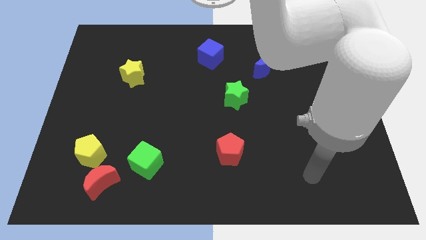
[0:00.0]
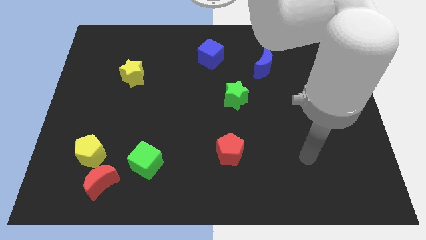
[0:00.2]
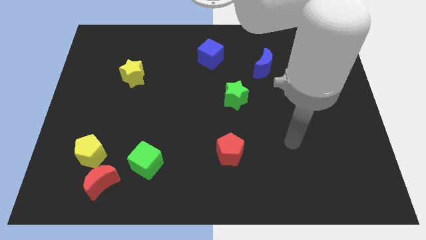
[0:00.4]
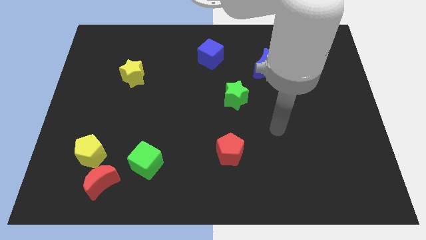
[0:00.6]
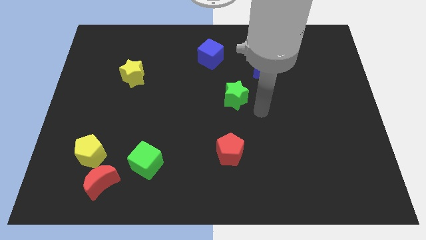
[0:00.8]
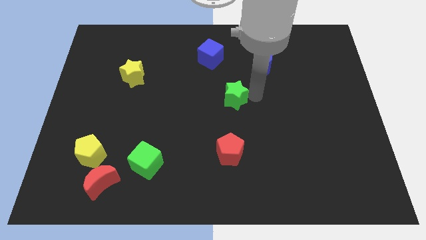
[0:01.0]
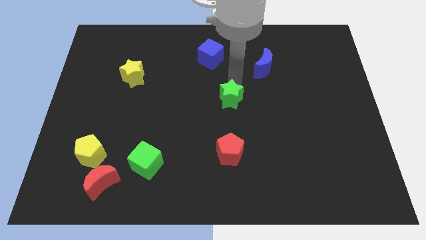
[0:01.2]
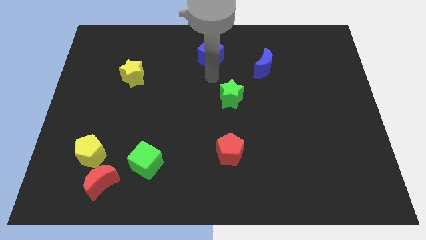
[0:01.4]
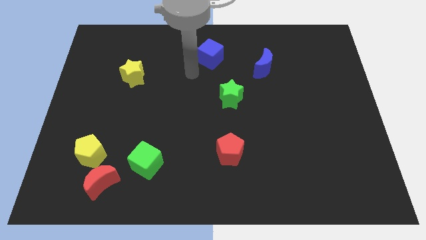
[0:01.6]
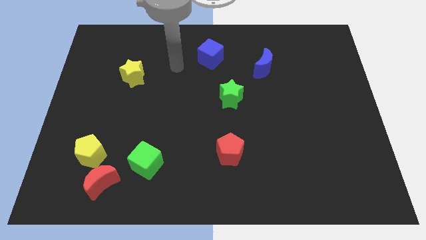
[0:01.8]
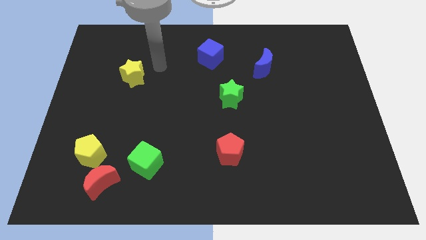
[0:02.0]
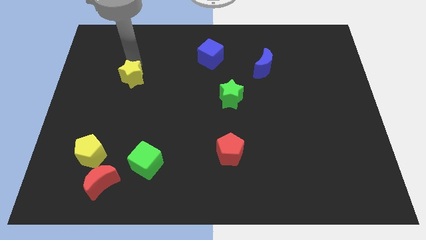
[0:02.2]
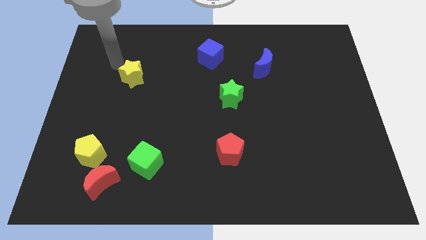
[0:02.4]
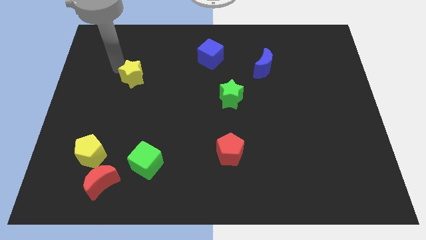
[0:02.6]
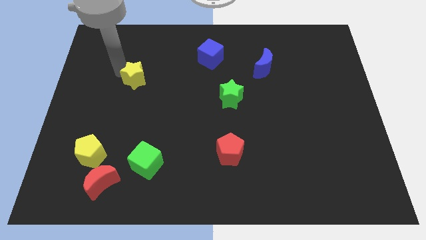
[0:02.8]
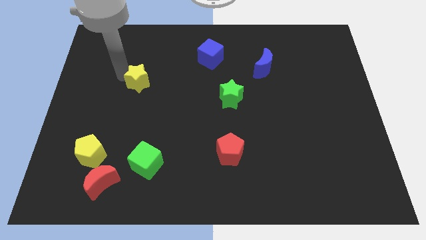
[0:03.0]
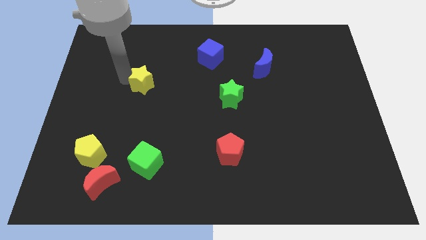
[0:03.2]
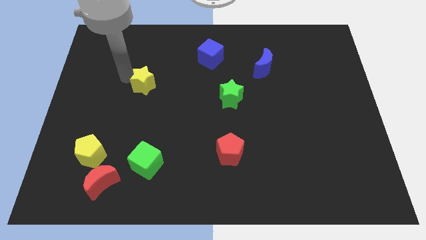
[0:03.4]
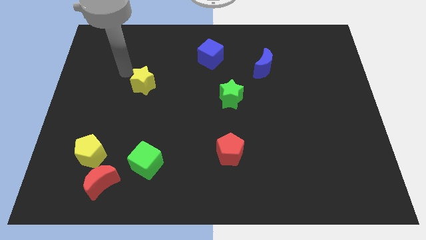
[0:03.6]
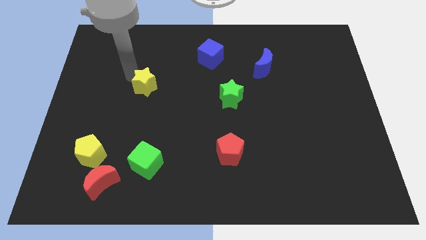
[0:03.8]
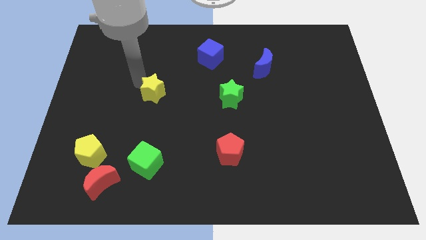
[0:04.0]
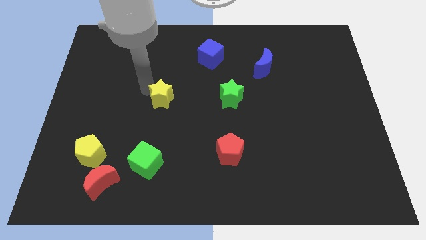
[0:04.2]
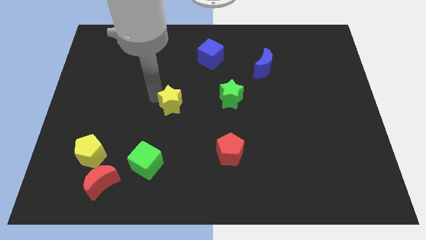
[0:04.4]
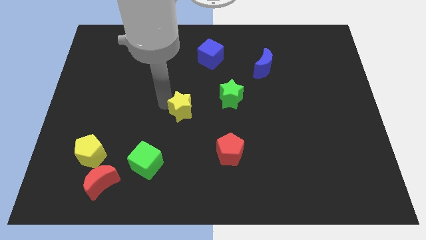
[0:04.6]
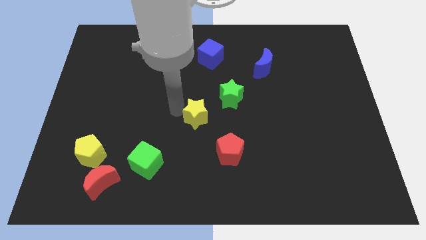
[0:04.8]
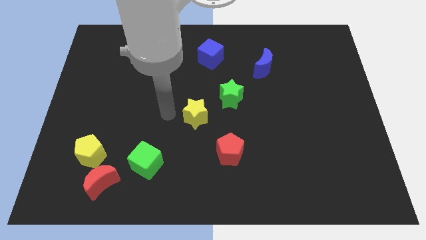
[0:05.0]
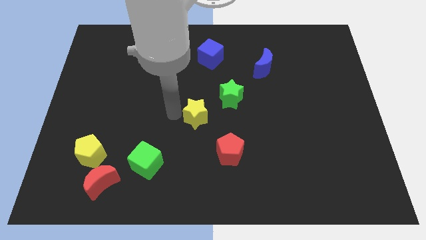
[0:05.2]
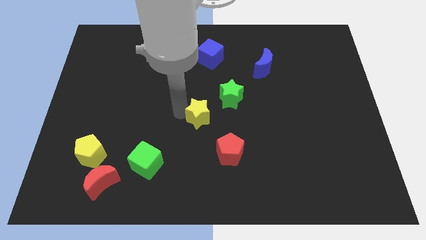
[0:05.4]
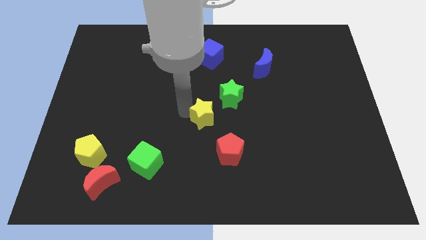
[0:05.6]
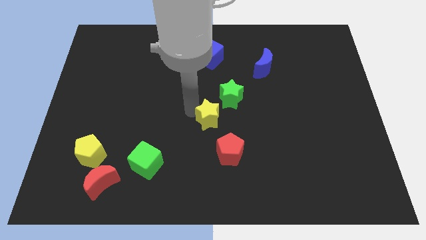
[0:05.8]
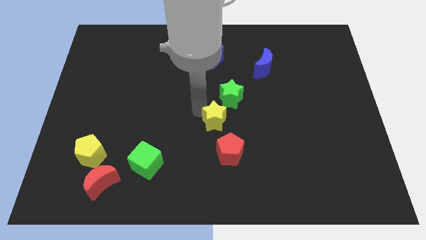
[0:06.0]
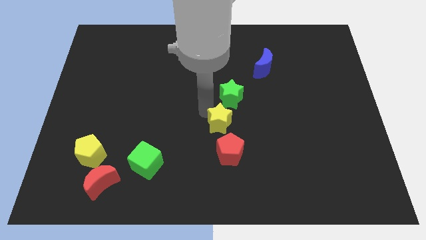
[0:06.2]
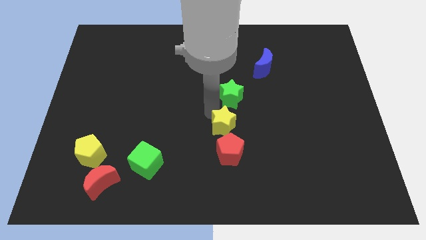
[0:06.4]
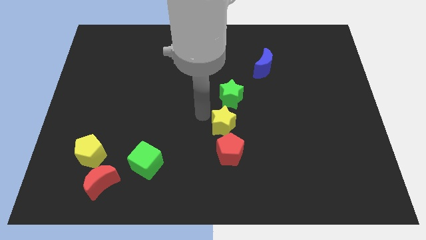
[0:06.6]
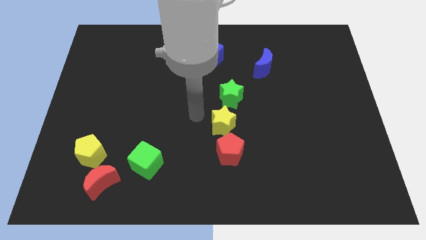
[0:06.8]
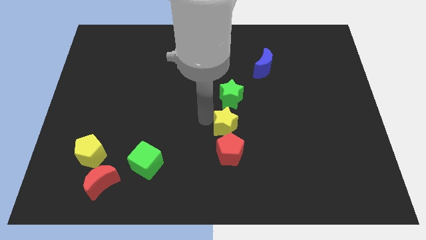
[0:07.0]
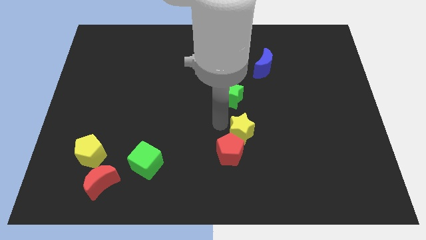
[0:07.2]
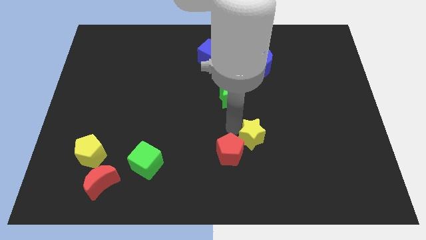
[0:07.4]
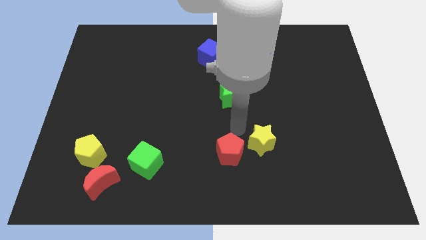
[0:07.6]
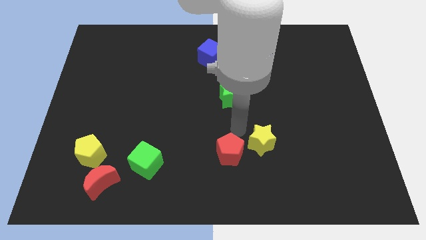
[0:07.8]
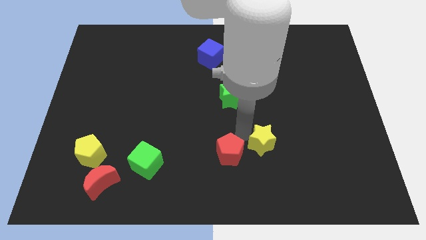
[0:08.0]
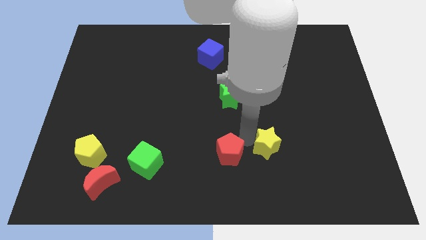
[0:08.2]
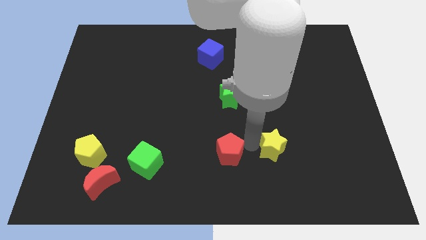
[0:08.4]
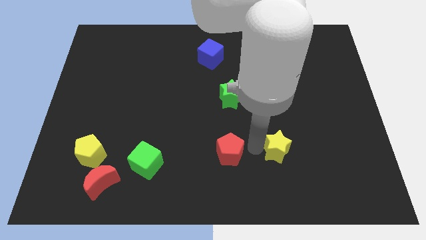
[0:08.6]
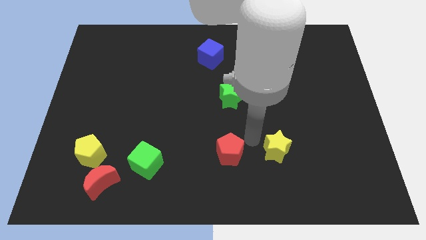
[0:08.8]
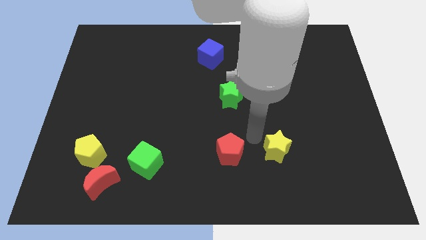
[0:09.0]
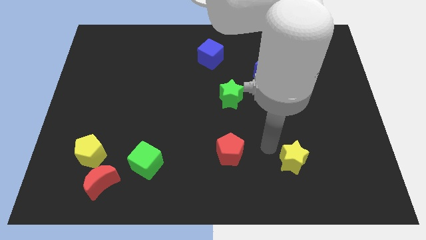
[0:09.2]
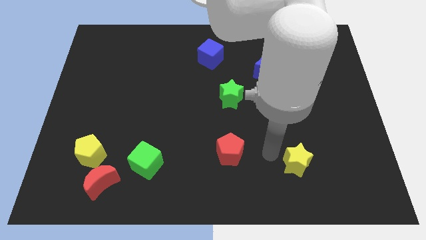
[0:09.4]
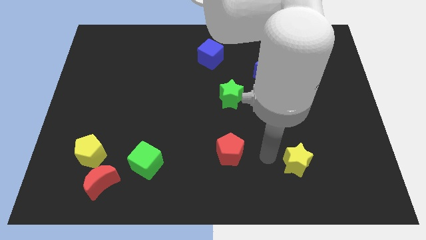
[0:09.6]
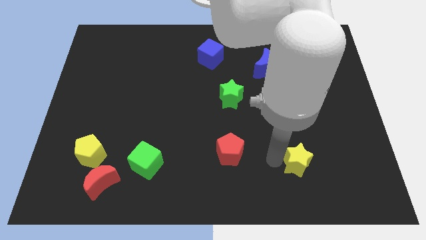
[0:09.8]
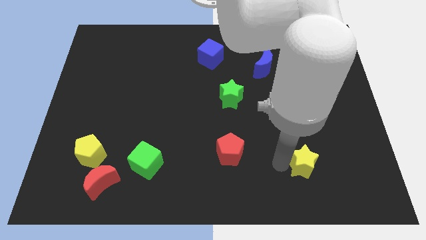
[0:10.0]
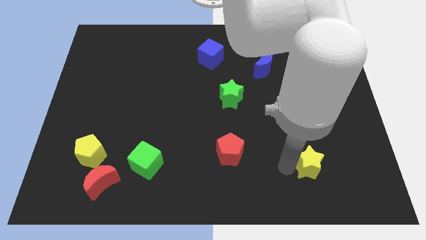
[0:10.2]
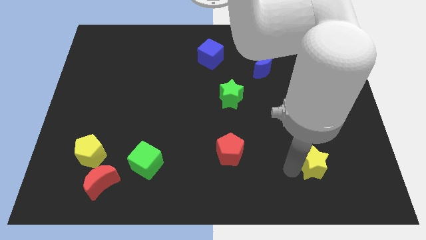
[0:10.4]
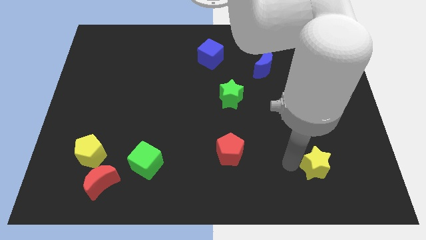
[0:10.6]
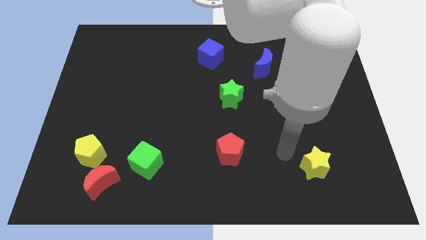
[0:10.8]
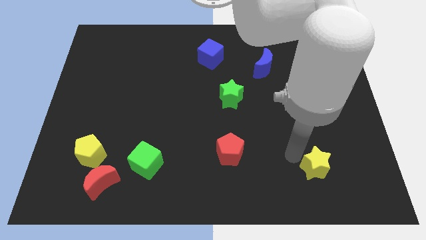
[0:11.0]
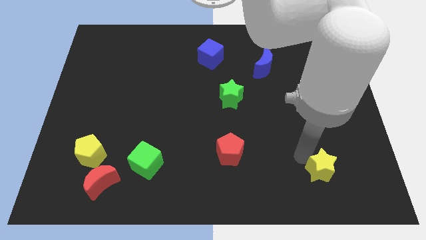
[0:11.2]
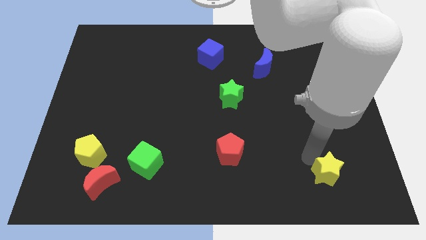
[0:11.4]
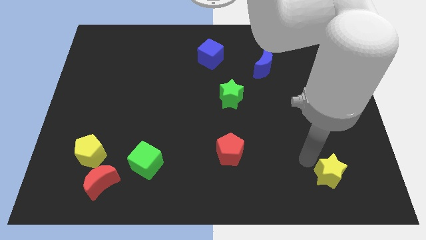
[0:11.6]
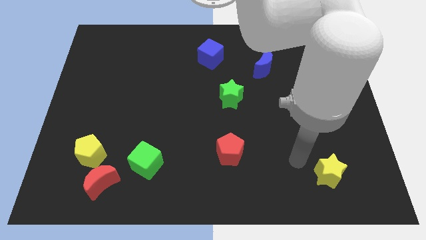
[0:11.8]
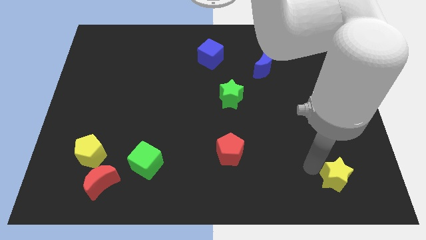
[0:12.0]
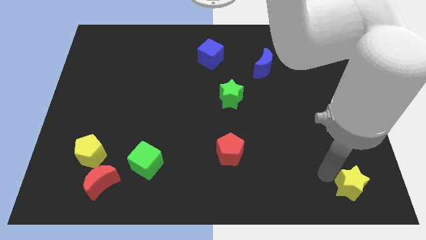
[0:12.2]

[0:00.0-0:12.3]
move the yellow star to the bottom right of the board
